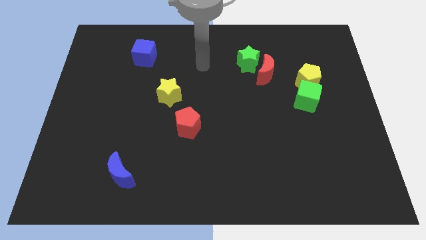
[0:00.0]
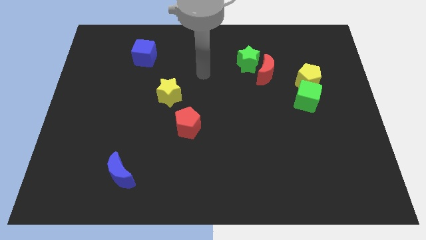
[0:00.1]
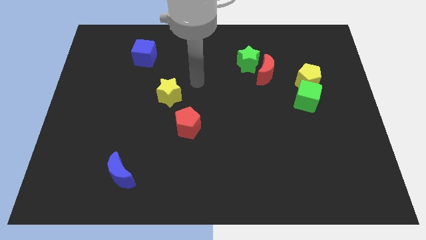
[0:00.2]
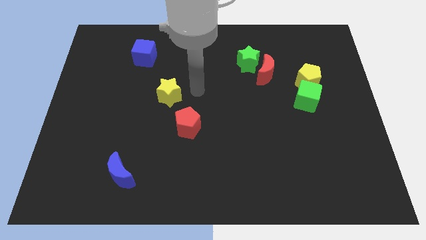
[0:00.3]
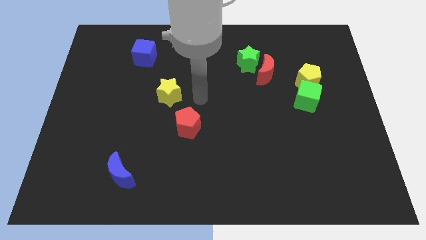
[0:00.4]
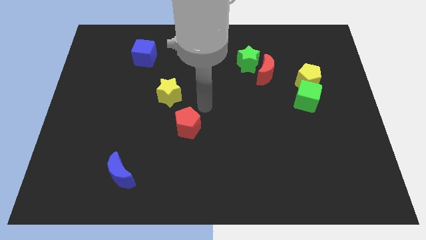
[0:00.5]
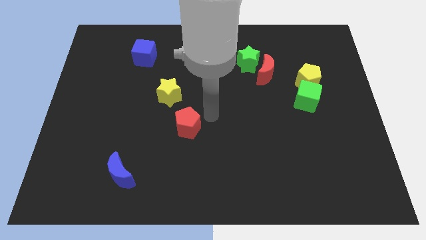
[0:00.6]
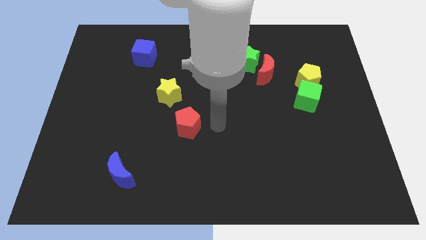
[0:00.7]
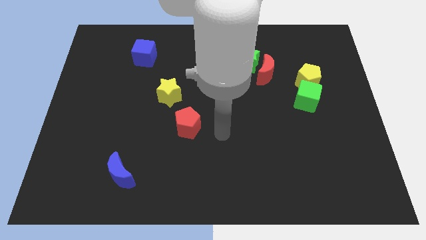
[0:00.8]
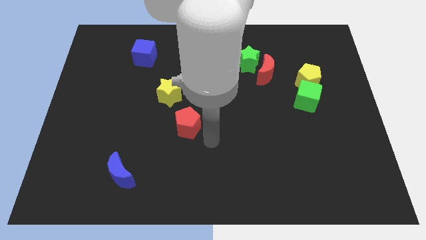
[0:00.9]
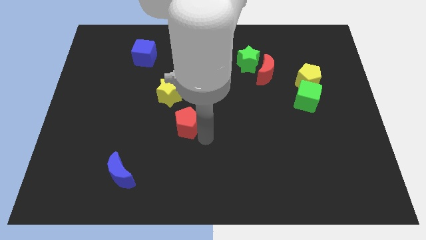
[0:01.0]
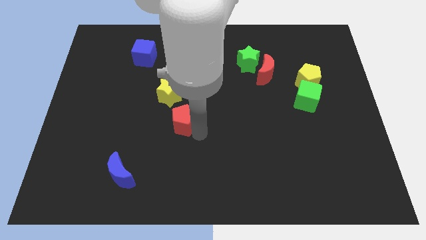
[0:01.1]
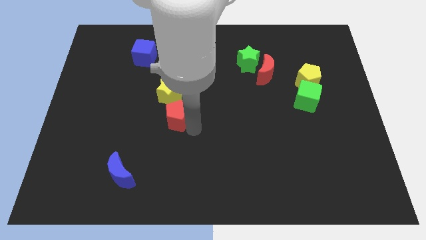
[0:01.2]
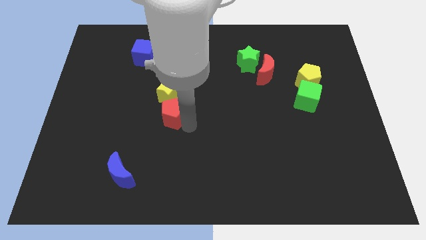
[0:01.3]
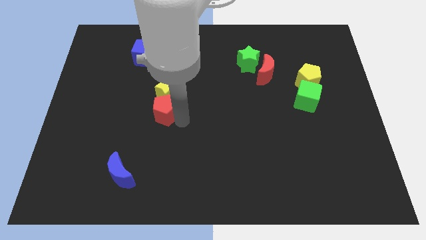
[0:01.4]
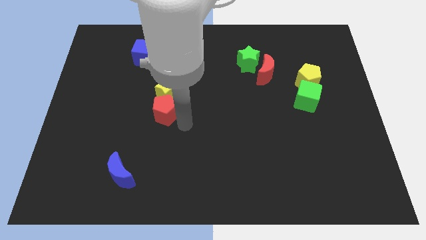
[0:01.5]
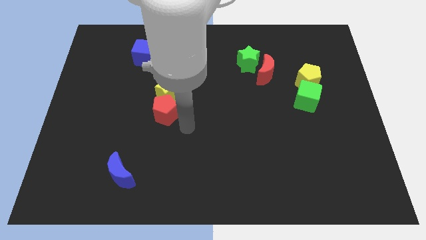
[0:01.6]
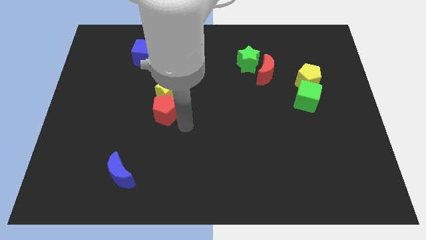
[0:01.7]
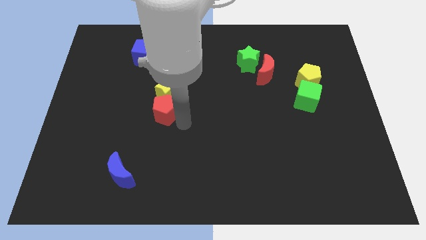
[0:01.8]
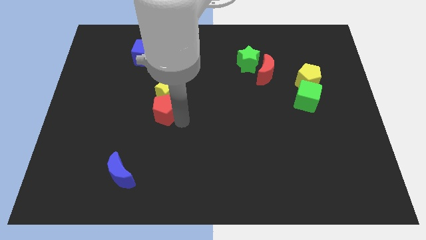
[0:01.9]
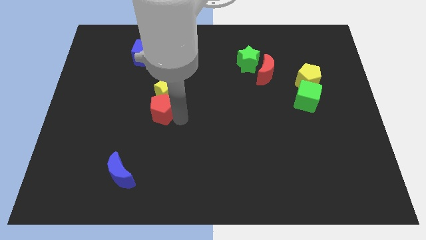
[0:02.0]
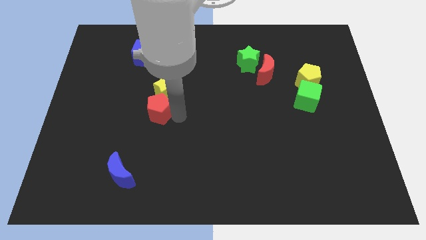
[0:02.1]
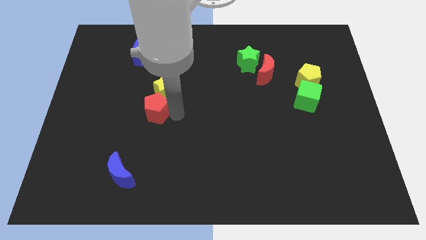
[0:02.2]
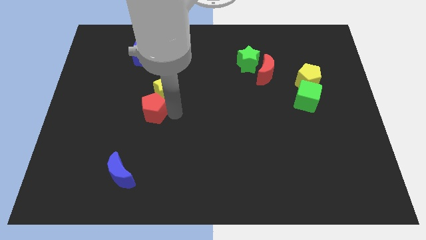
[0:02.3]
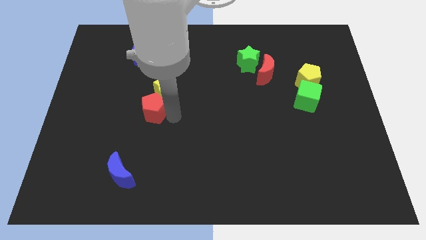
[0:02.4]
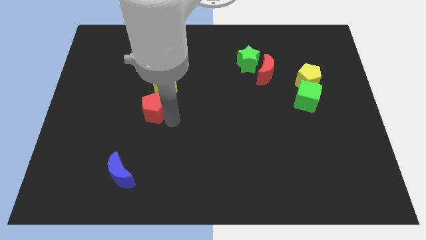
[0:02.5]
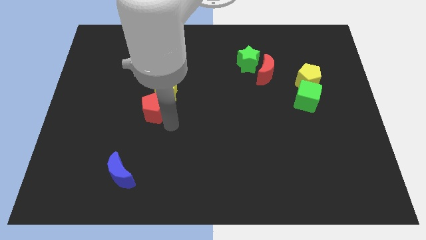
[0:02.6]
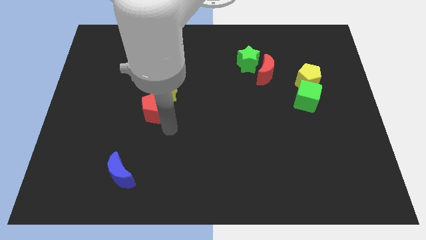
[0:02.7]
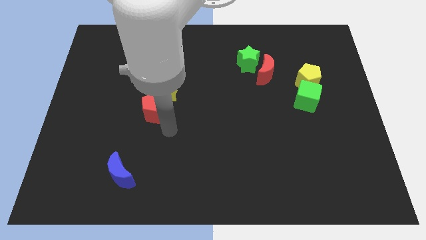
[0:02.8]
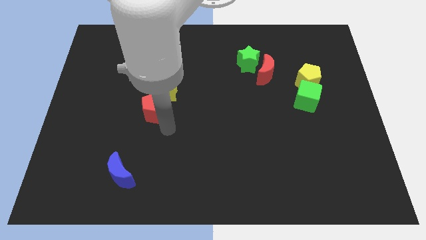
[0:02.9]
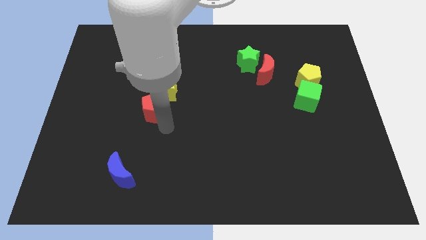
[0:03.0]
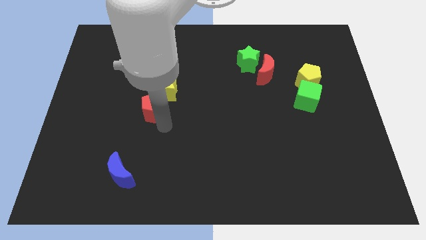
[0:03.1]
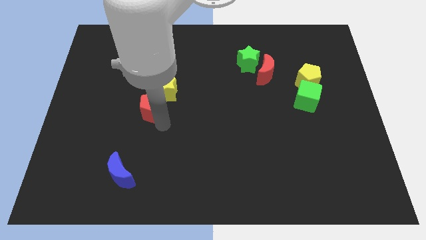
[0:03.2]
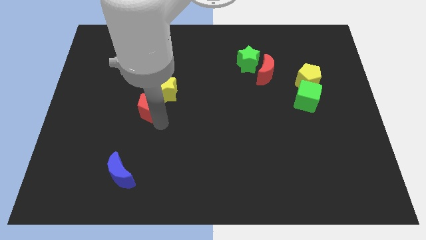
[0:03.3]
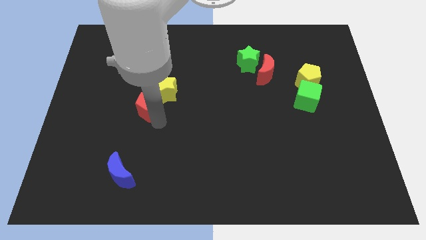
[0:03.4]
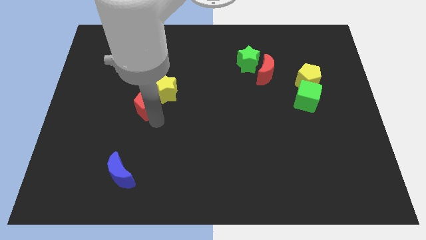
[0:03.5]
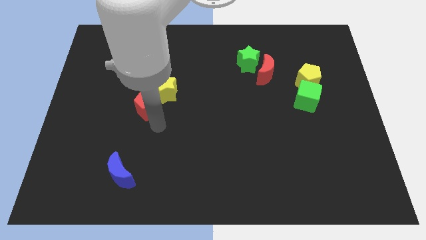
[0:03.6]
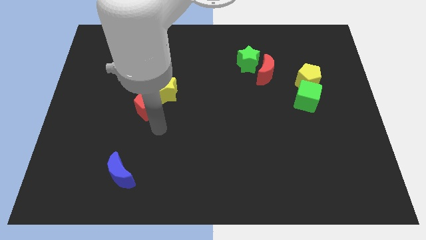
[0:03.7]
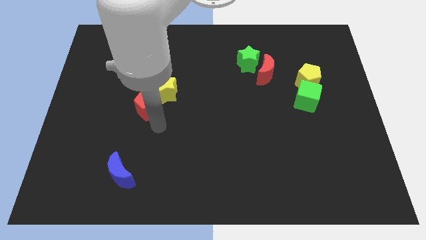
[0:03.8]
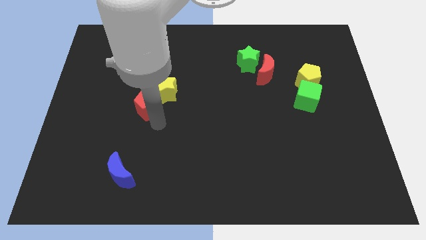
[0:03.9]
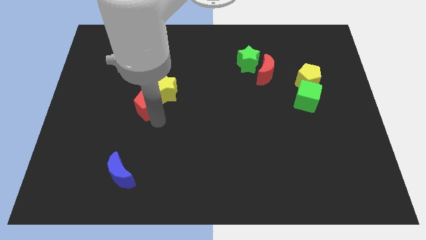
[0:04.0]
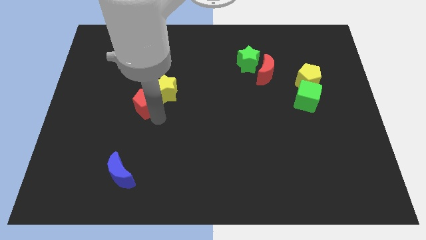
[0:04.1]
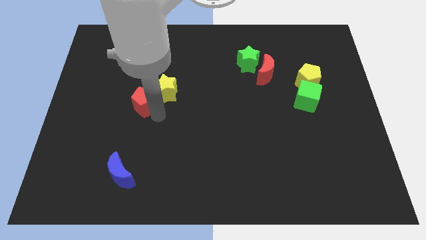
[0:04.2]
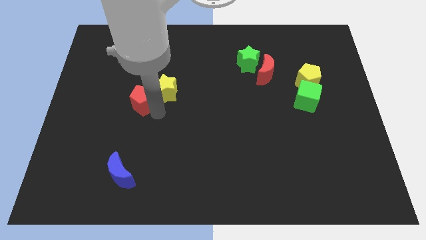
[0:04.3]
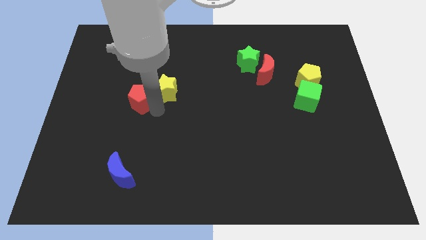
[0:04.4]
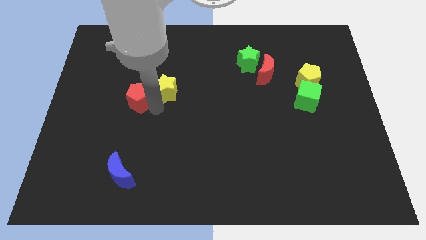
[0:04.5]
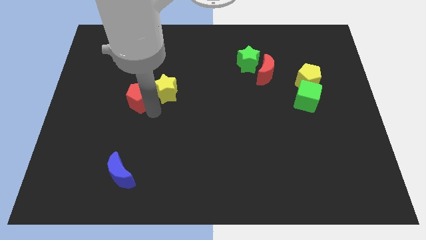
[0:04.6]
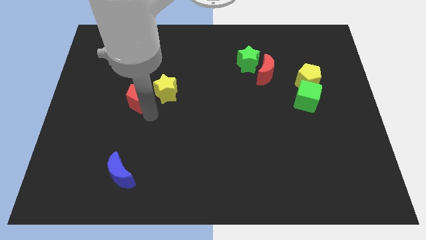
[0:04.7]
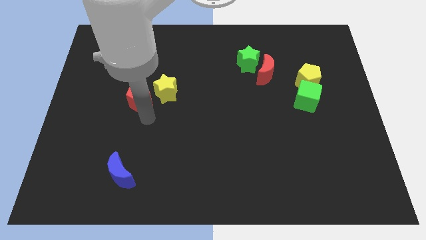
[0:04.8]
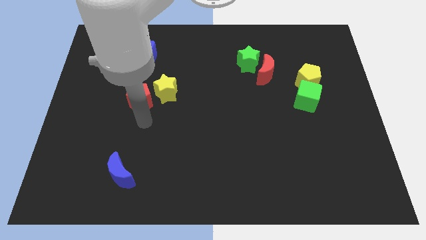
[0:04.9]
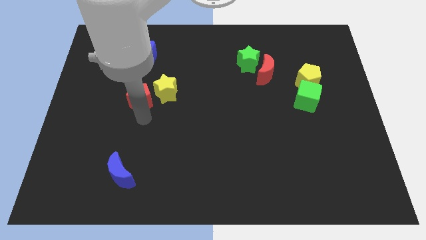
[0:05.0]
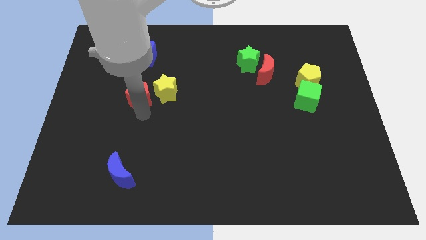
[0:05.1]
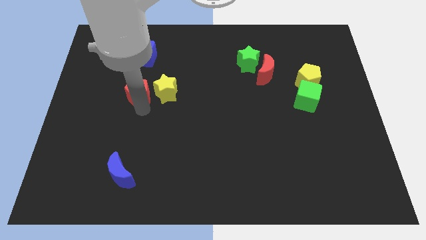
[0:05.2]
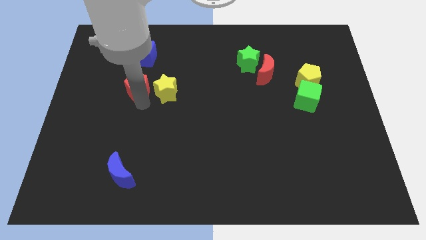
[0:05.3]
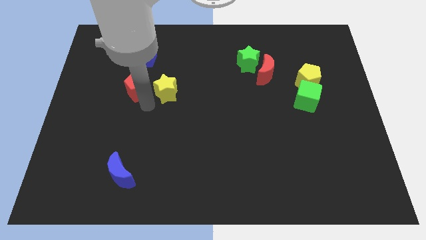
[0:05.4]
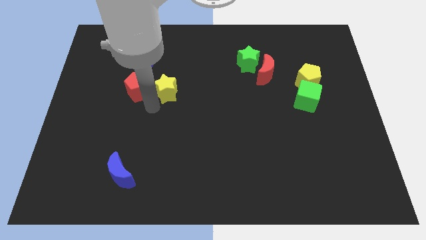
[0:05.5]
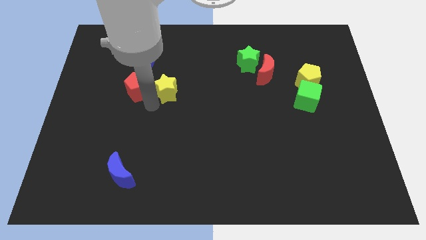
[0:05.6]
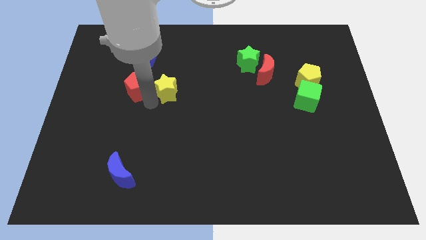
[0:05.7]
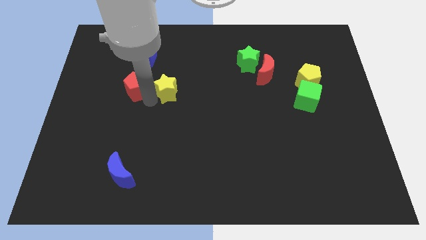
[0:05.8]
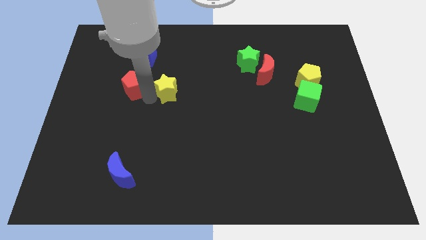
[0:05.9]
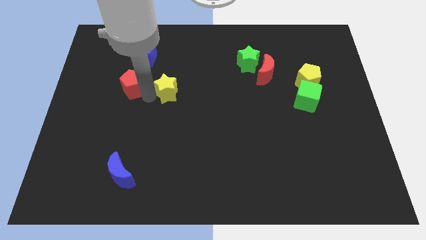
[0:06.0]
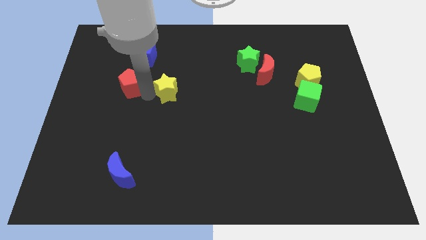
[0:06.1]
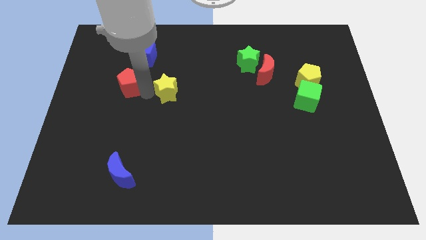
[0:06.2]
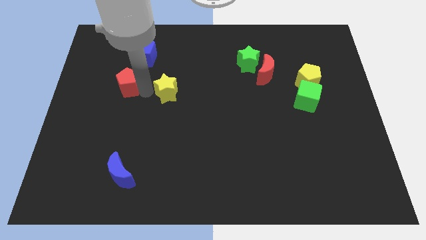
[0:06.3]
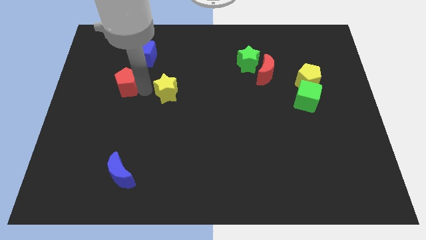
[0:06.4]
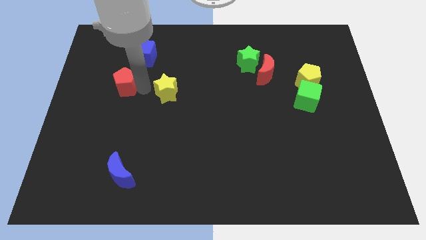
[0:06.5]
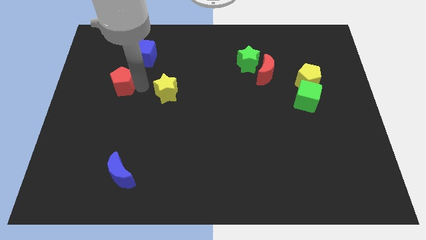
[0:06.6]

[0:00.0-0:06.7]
slide the red pentagon up and then left

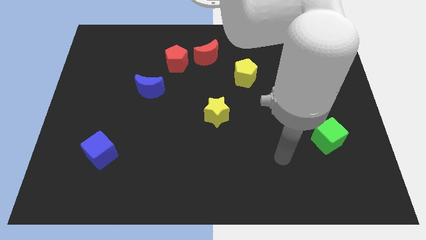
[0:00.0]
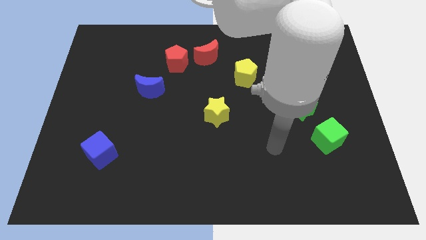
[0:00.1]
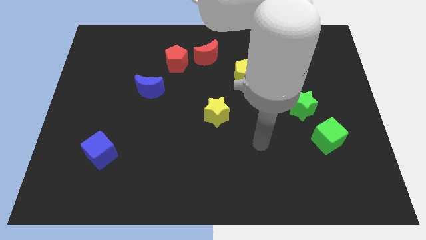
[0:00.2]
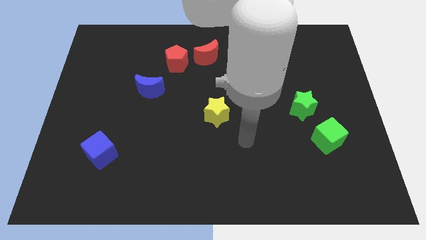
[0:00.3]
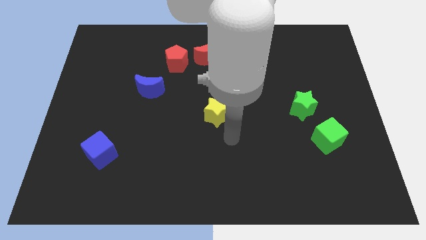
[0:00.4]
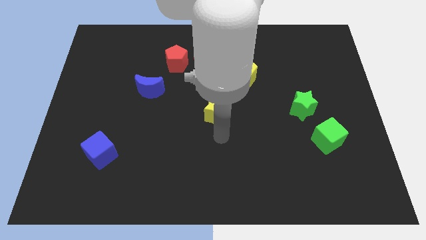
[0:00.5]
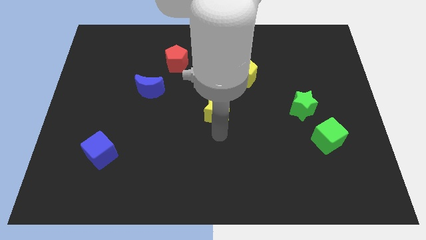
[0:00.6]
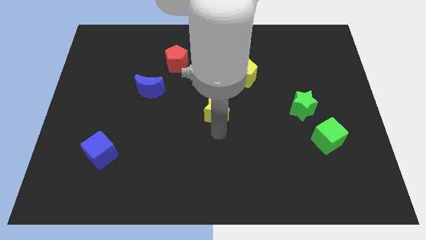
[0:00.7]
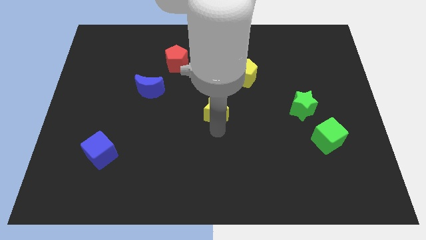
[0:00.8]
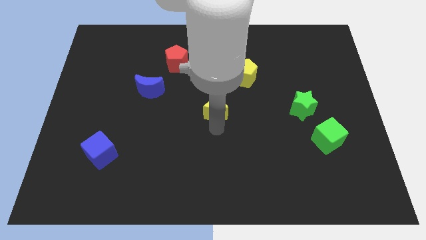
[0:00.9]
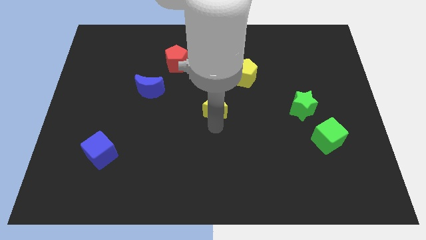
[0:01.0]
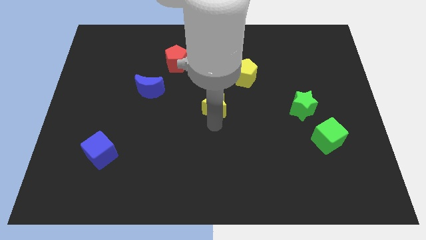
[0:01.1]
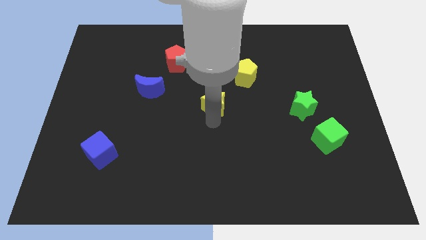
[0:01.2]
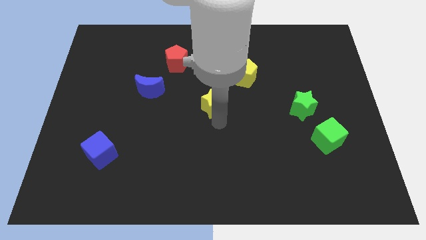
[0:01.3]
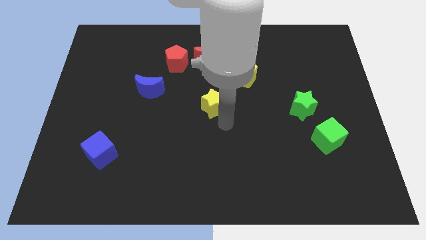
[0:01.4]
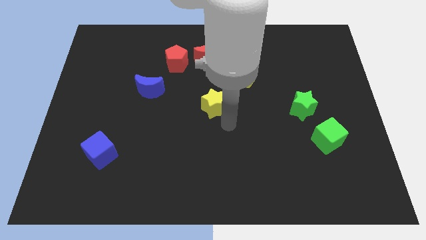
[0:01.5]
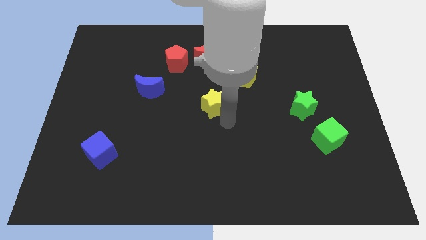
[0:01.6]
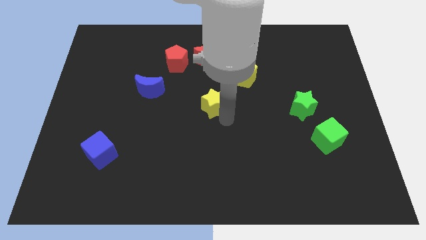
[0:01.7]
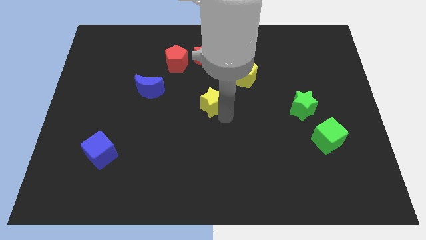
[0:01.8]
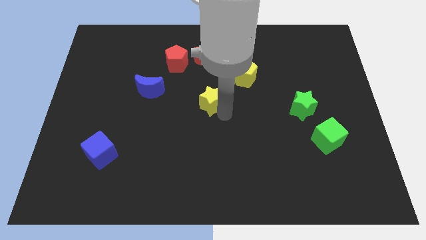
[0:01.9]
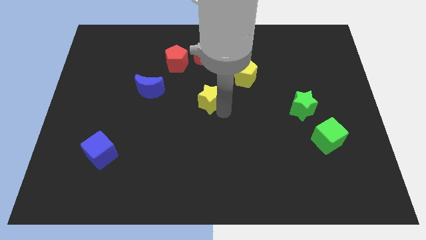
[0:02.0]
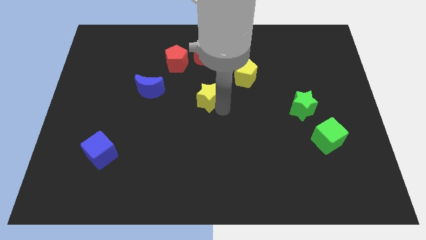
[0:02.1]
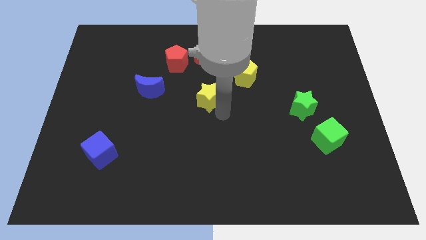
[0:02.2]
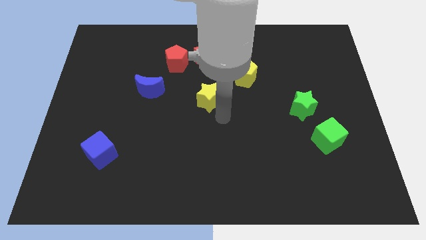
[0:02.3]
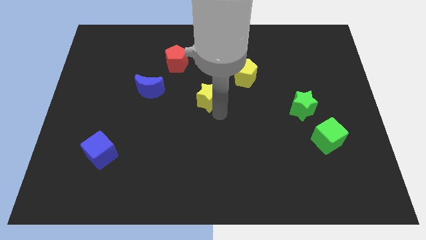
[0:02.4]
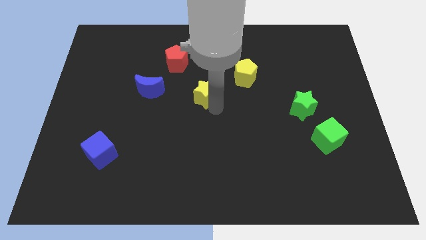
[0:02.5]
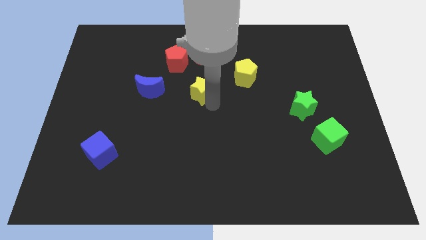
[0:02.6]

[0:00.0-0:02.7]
push the yellow star diagonally up and left somewhat
